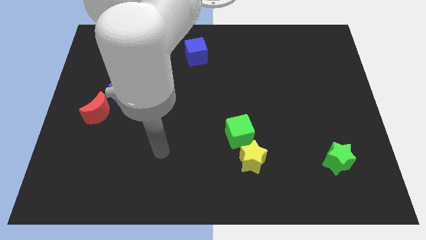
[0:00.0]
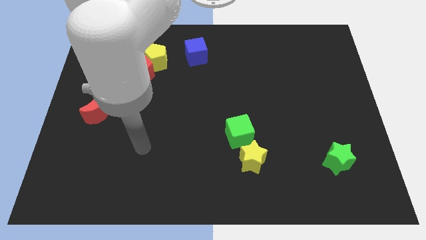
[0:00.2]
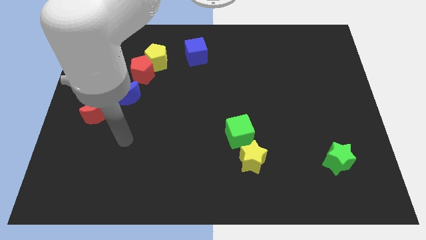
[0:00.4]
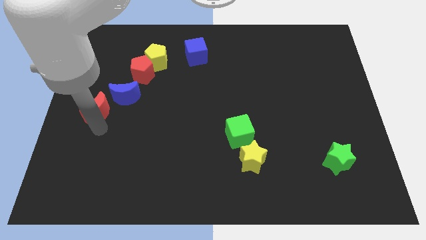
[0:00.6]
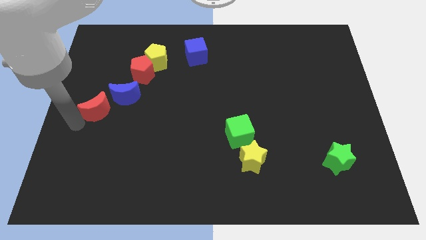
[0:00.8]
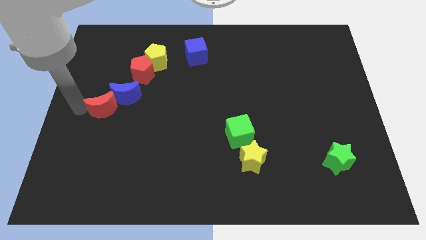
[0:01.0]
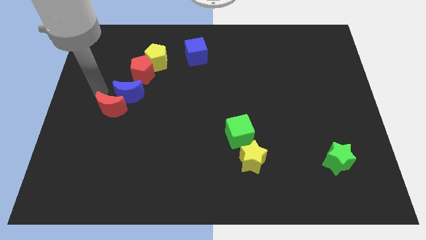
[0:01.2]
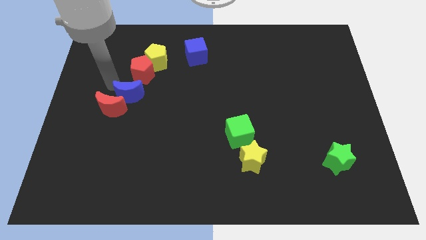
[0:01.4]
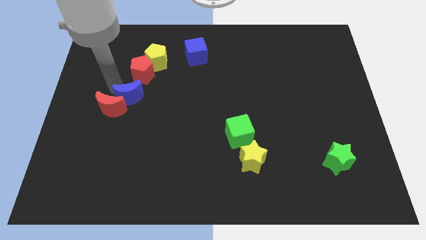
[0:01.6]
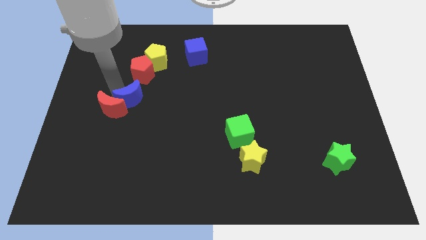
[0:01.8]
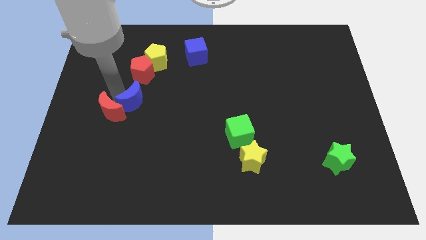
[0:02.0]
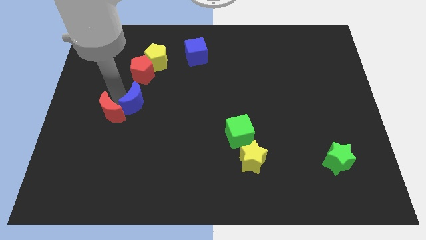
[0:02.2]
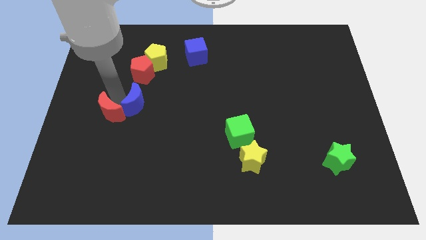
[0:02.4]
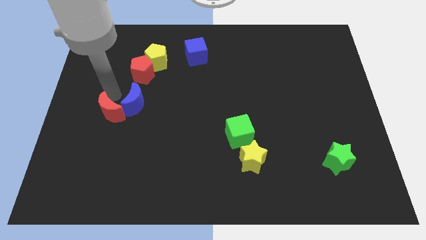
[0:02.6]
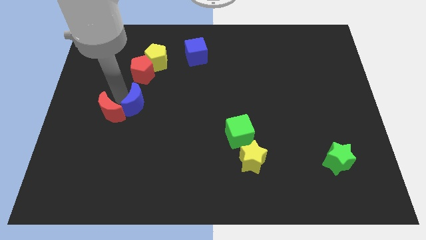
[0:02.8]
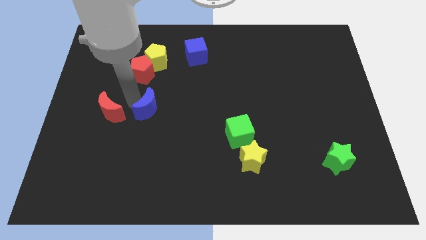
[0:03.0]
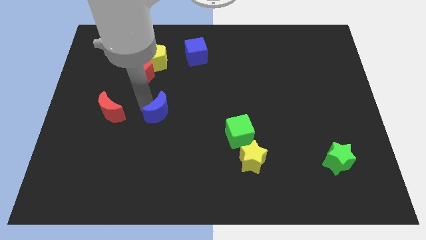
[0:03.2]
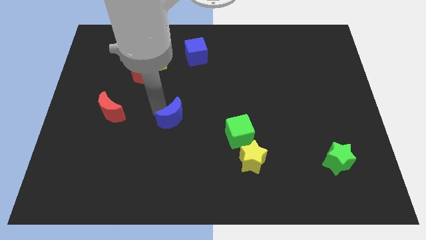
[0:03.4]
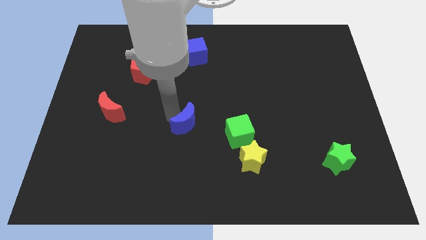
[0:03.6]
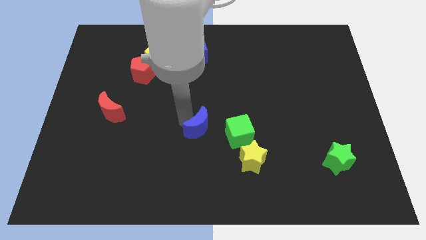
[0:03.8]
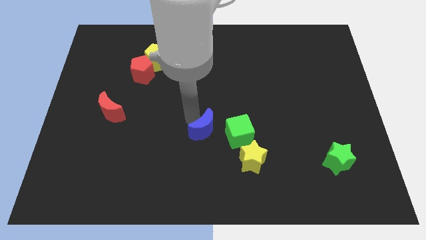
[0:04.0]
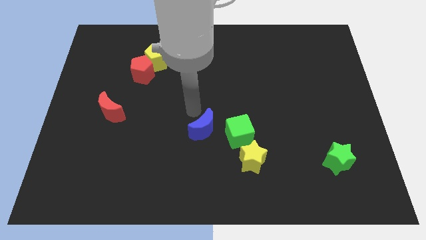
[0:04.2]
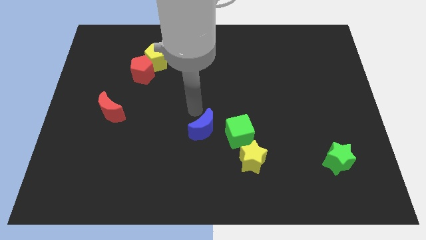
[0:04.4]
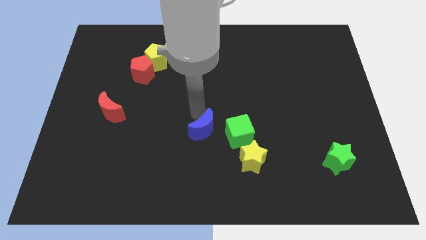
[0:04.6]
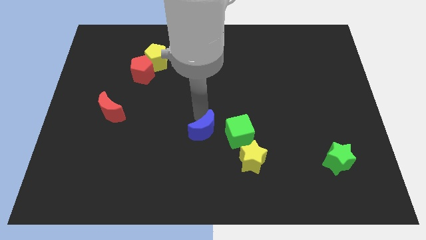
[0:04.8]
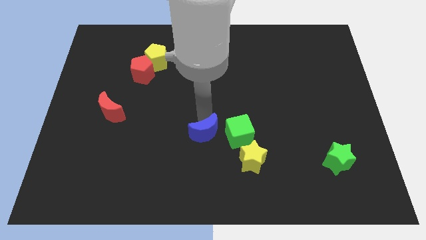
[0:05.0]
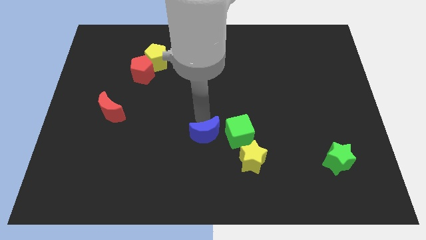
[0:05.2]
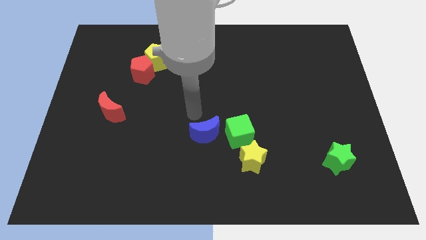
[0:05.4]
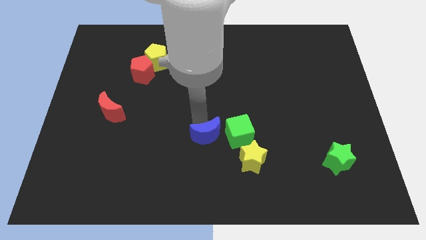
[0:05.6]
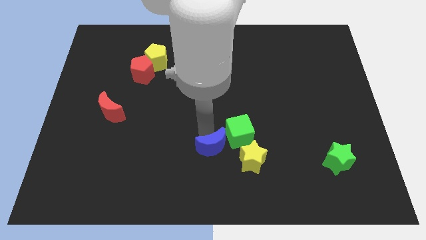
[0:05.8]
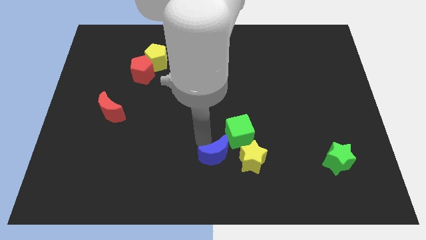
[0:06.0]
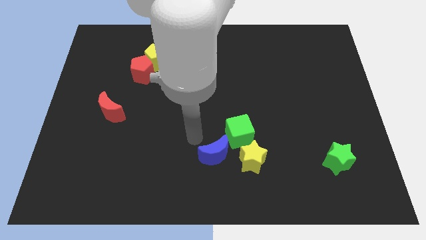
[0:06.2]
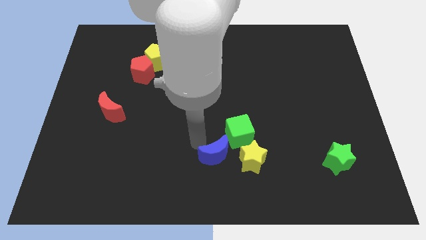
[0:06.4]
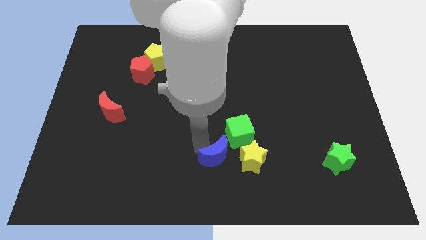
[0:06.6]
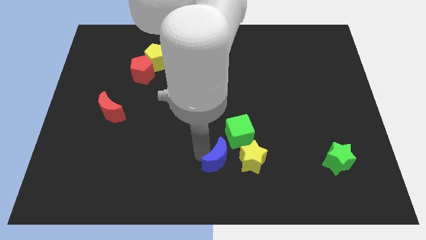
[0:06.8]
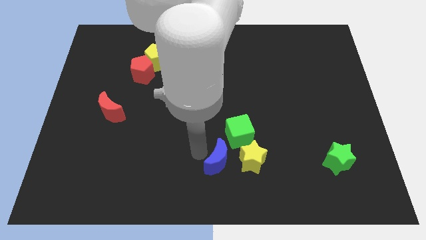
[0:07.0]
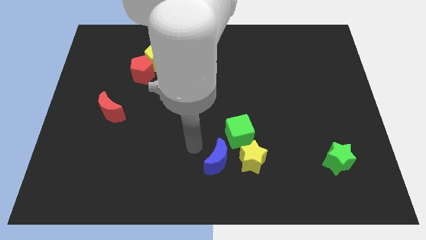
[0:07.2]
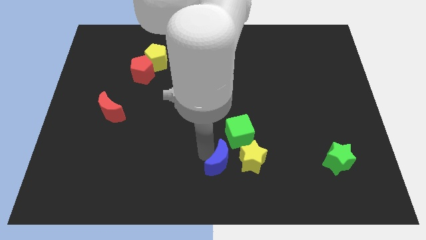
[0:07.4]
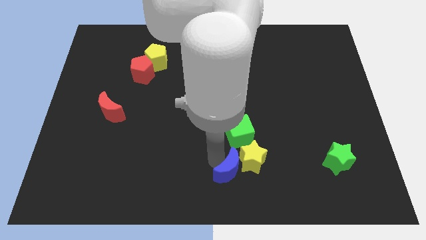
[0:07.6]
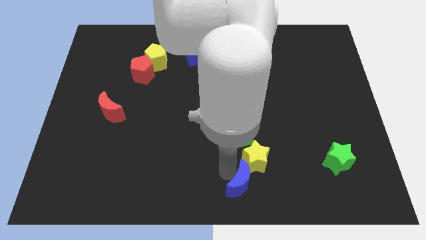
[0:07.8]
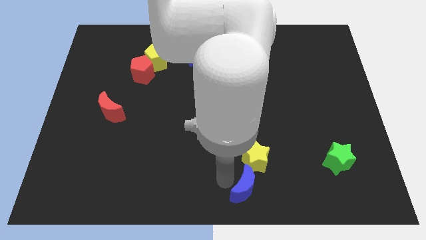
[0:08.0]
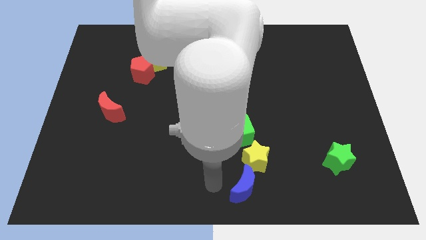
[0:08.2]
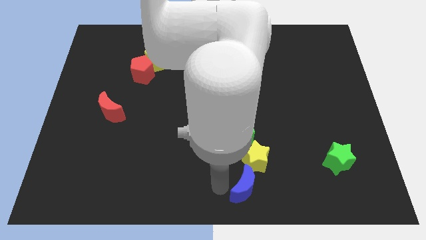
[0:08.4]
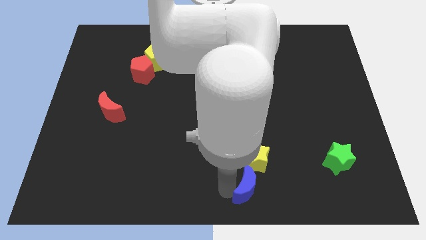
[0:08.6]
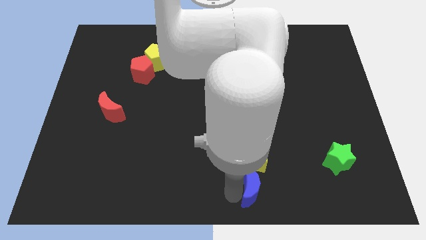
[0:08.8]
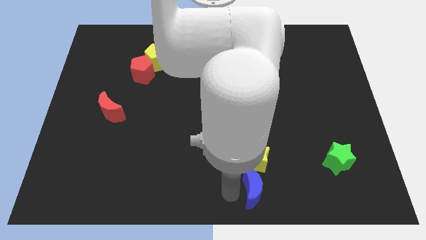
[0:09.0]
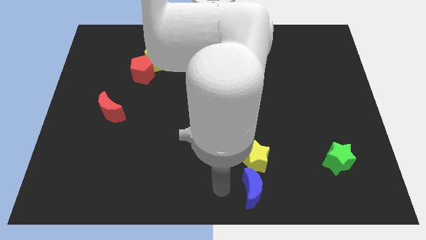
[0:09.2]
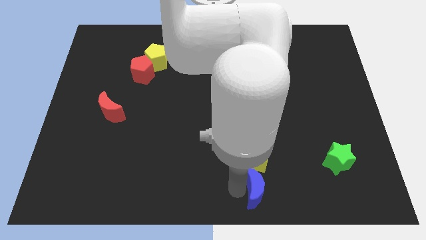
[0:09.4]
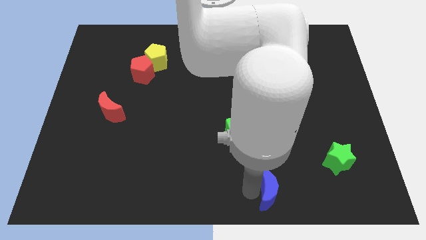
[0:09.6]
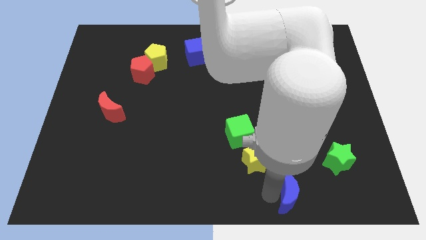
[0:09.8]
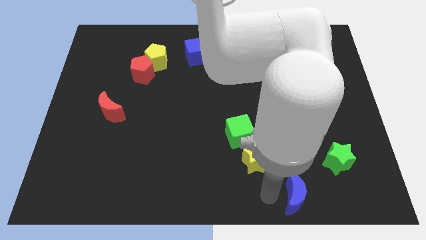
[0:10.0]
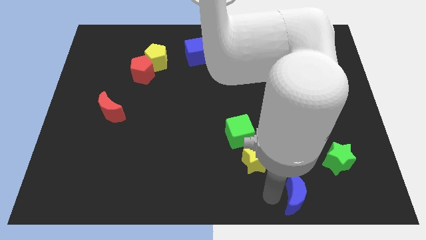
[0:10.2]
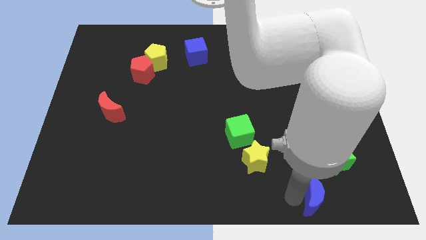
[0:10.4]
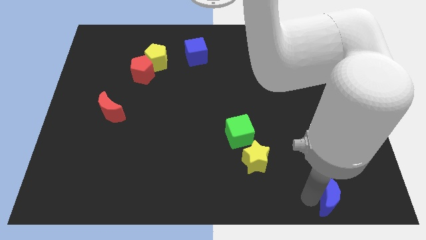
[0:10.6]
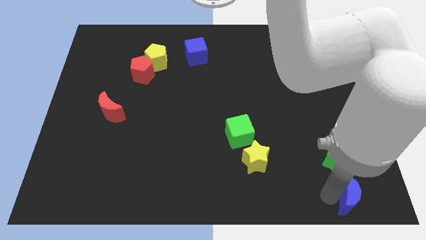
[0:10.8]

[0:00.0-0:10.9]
push the blue moon to the bottom right corner

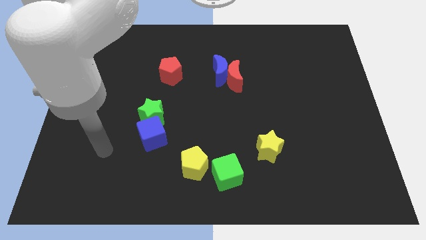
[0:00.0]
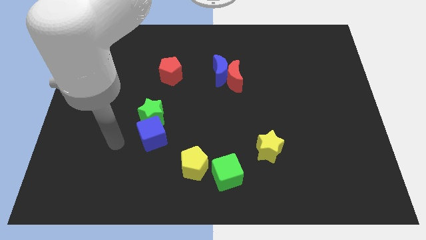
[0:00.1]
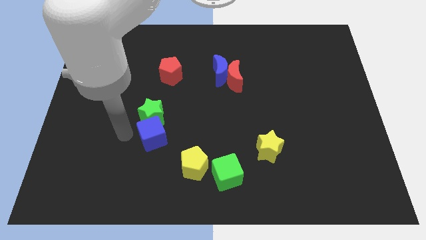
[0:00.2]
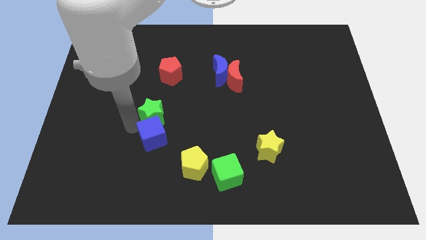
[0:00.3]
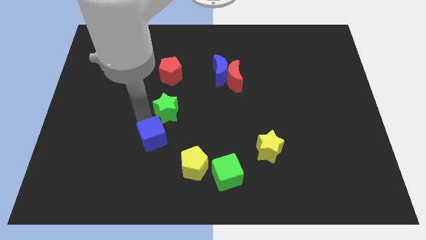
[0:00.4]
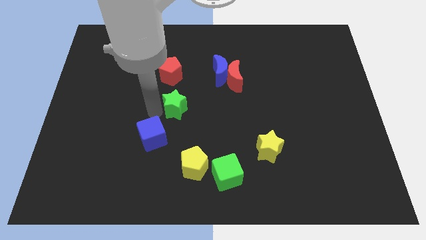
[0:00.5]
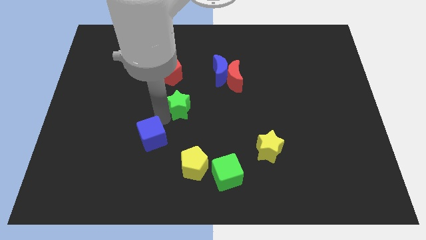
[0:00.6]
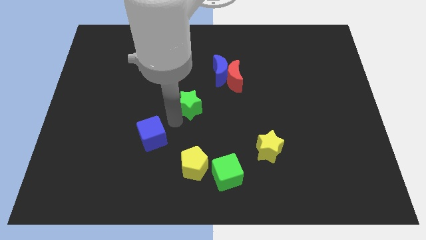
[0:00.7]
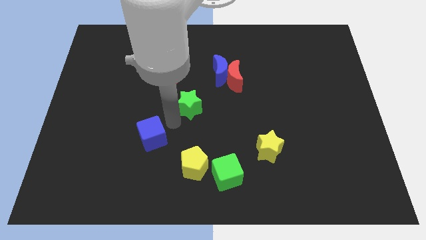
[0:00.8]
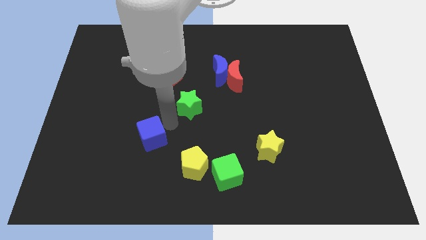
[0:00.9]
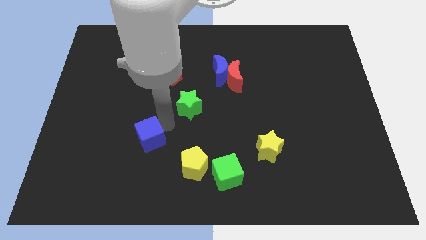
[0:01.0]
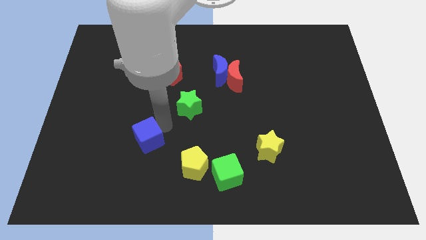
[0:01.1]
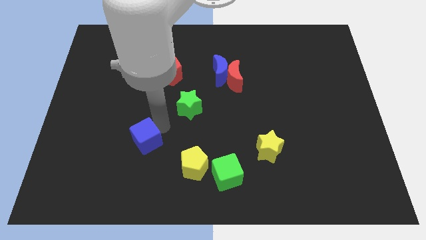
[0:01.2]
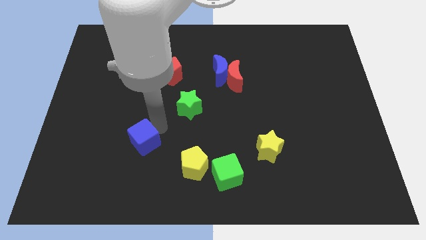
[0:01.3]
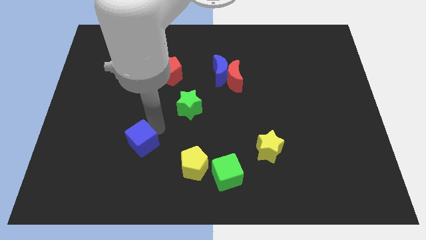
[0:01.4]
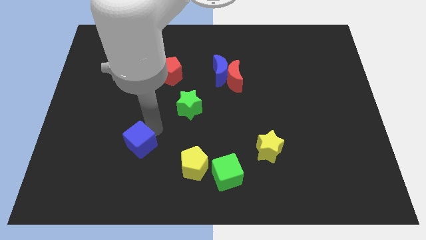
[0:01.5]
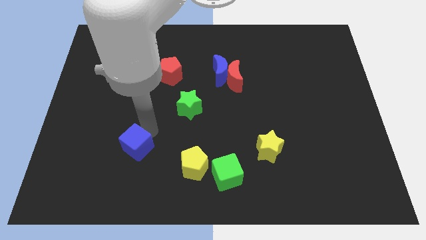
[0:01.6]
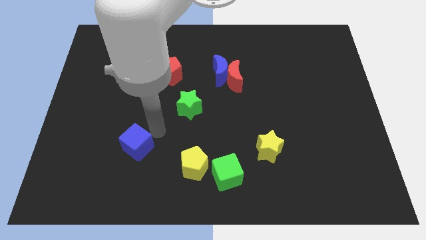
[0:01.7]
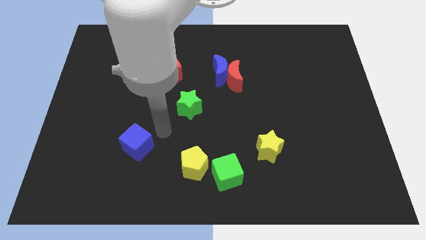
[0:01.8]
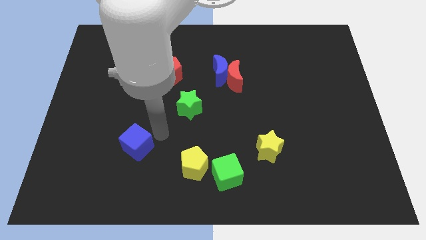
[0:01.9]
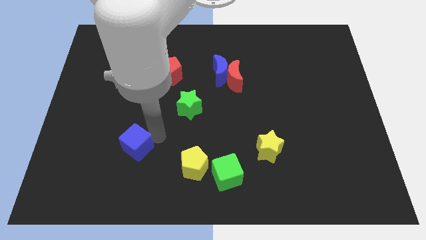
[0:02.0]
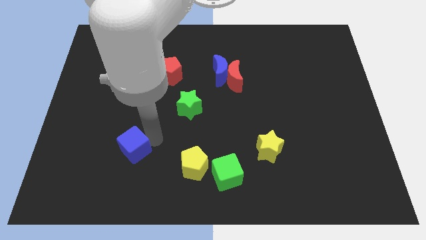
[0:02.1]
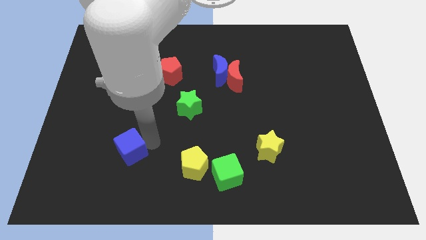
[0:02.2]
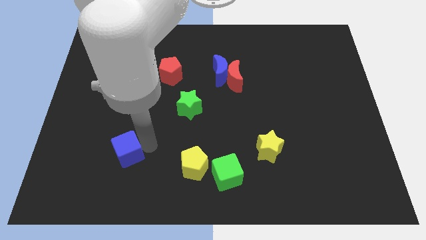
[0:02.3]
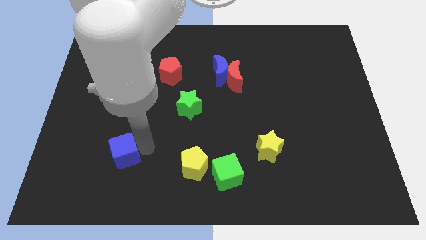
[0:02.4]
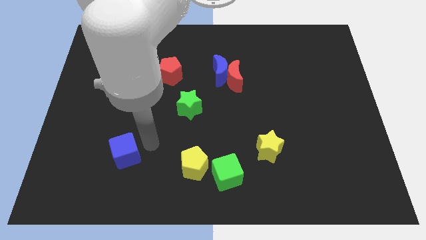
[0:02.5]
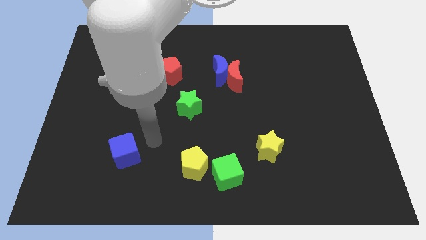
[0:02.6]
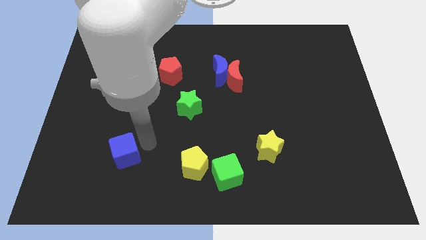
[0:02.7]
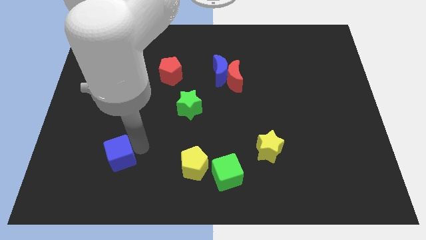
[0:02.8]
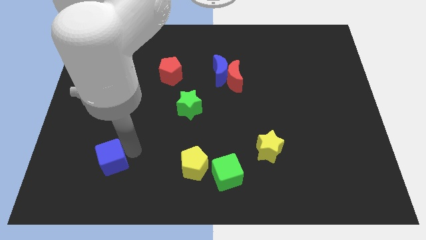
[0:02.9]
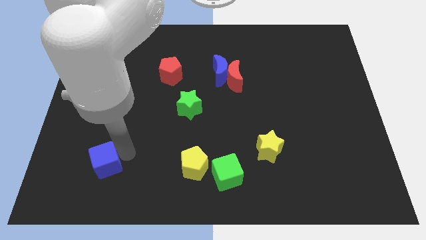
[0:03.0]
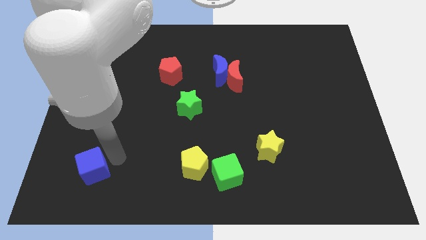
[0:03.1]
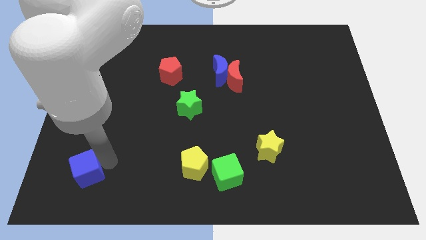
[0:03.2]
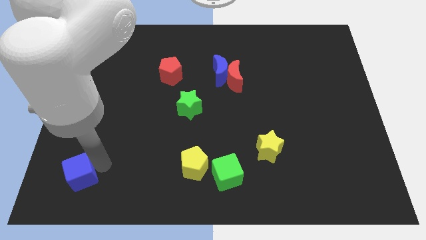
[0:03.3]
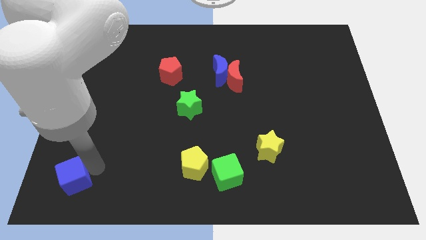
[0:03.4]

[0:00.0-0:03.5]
put the blue cube to the lower left corner
